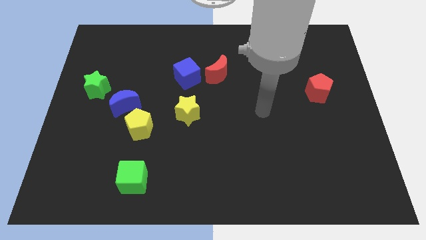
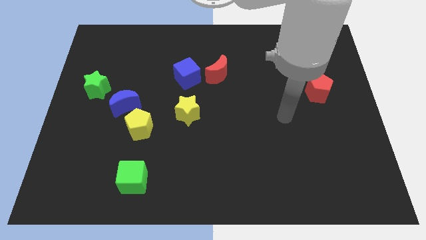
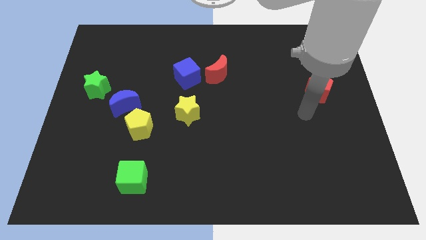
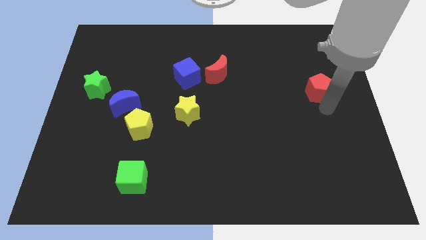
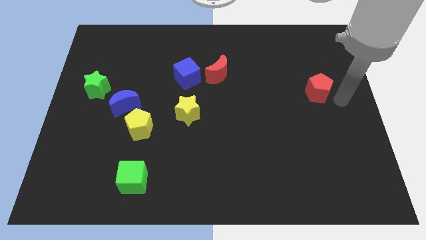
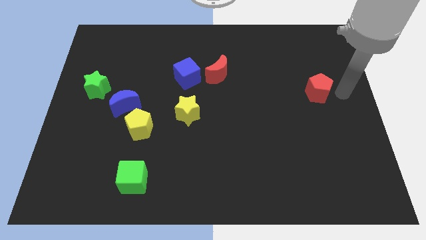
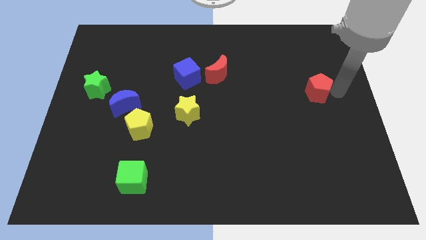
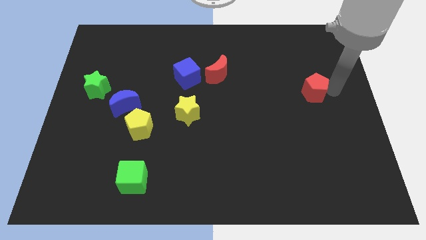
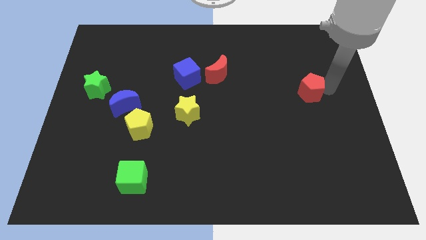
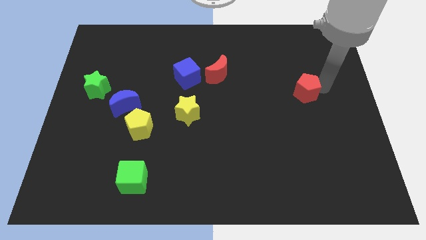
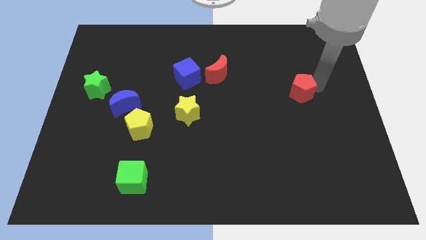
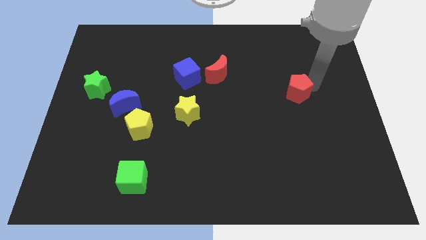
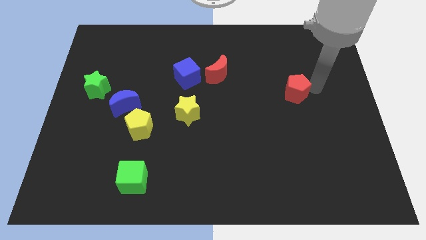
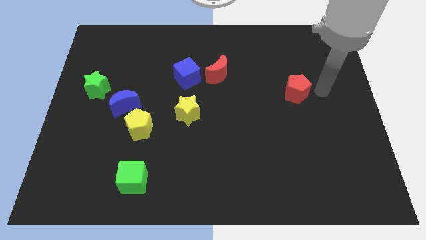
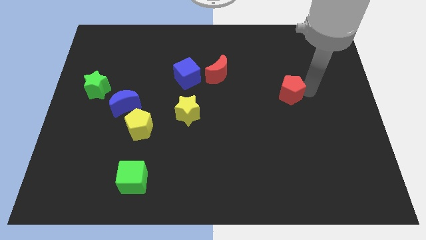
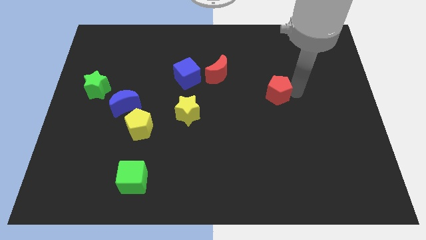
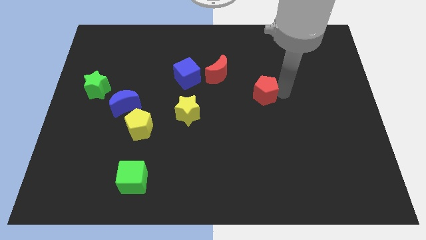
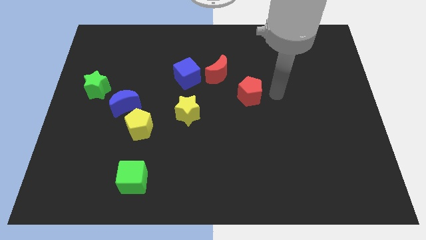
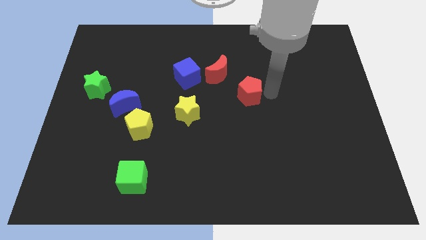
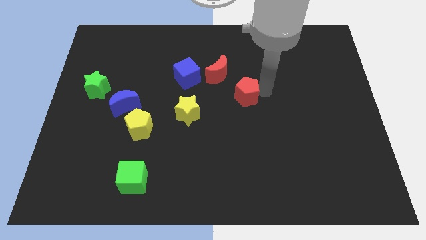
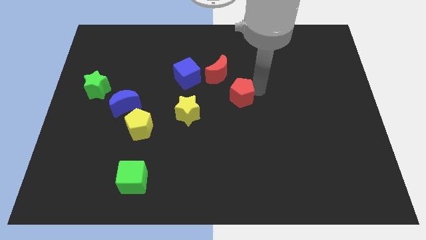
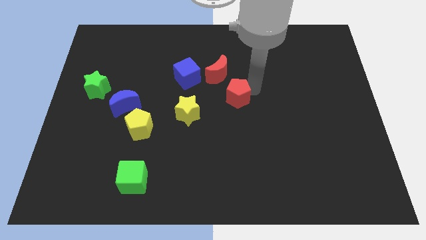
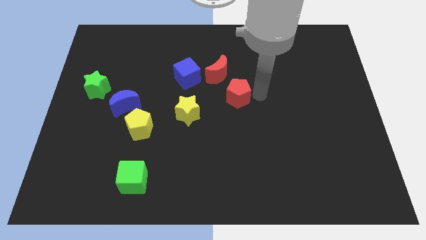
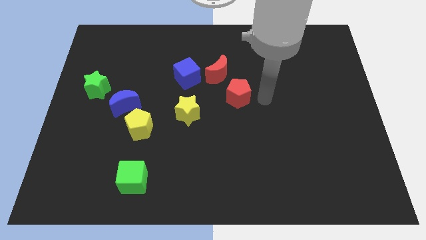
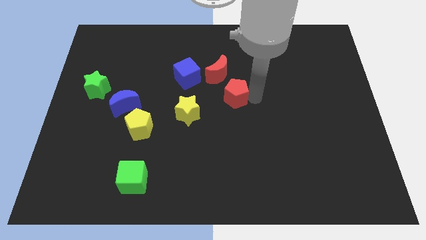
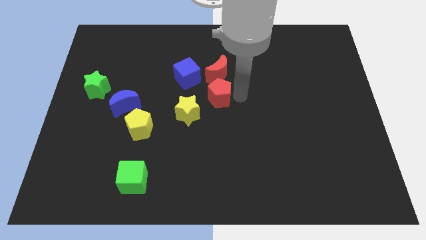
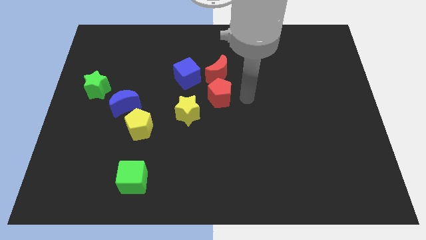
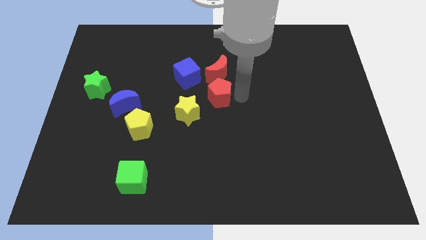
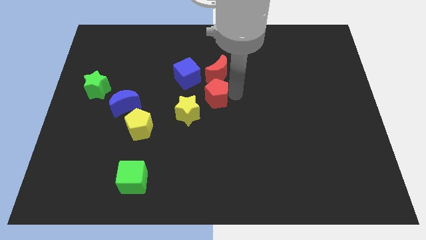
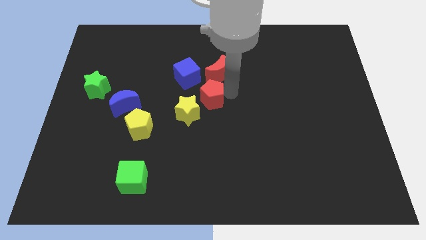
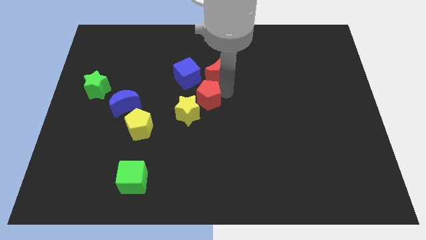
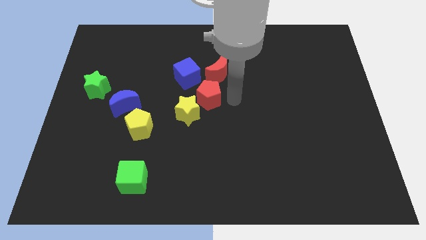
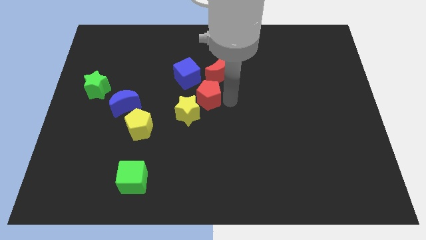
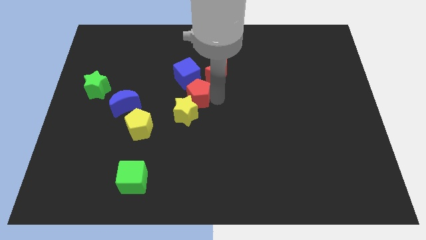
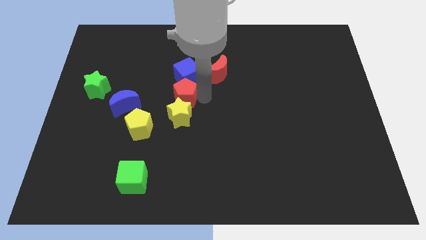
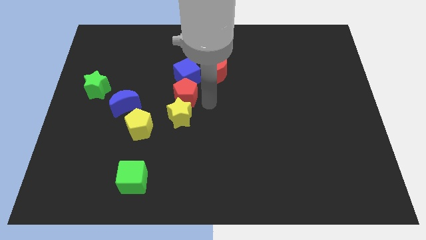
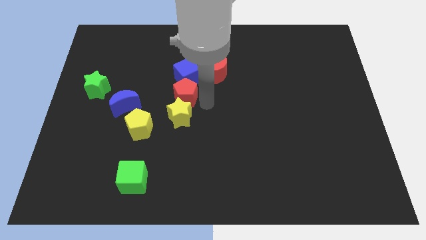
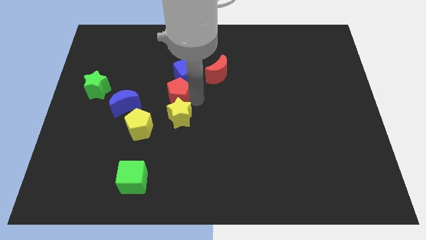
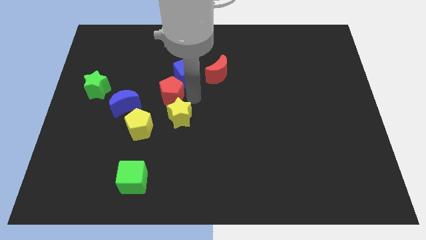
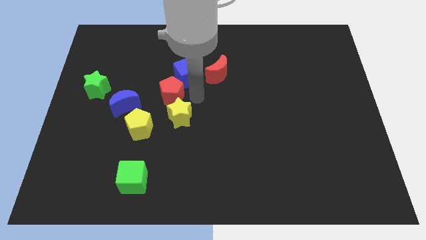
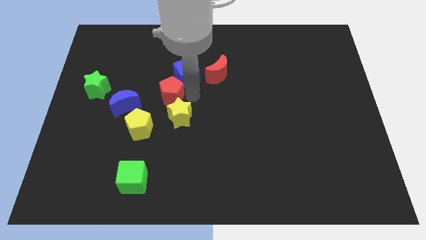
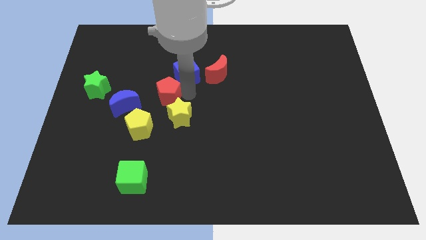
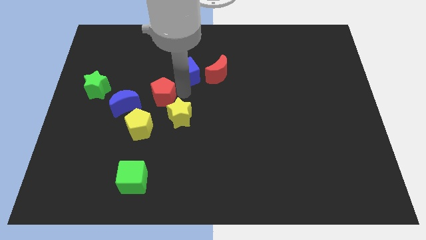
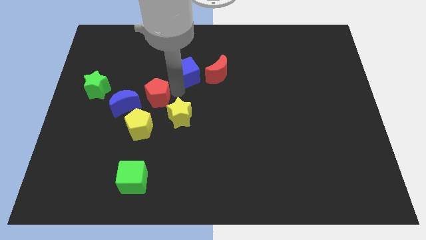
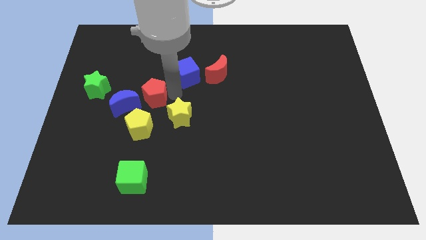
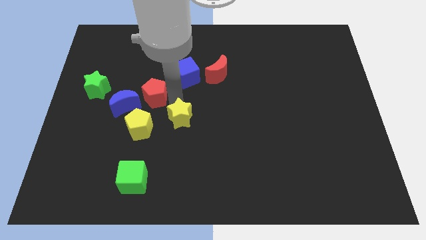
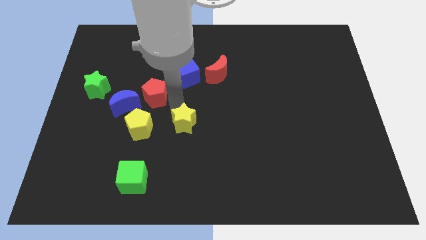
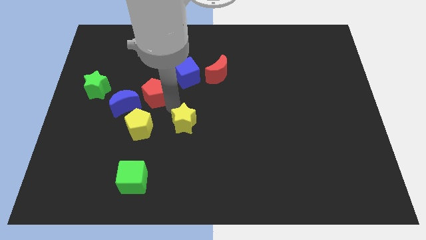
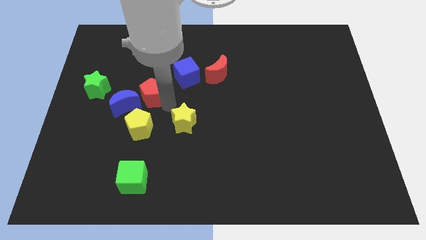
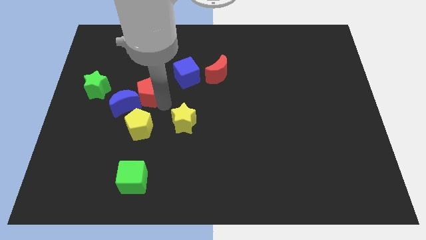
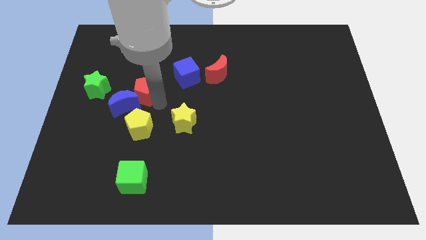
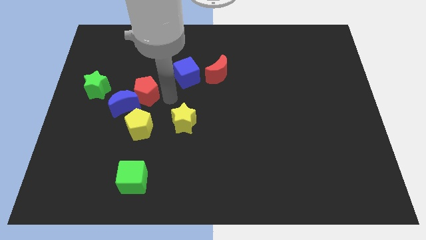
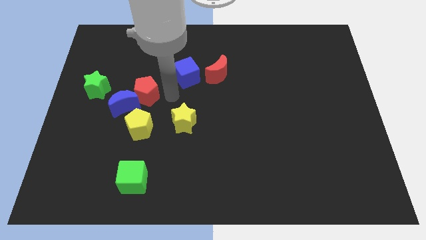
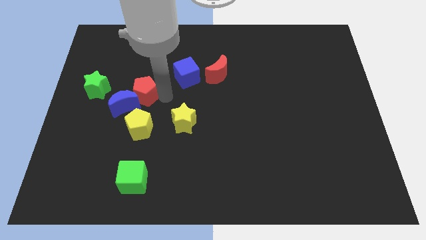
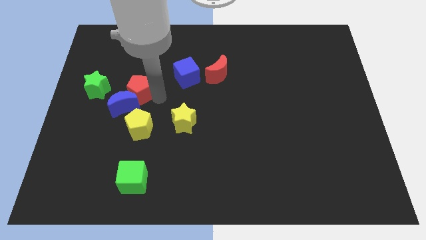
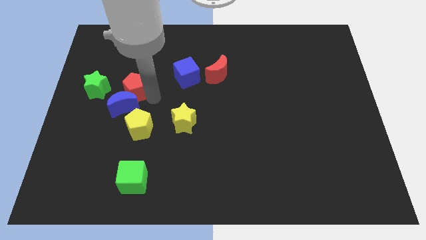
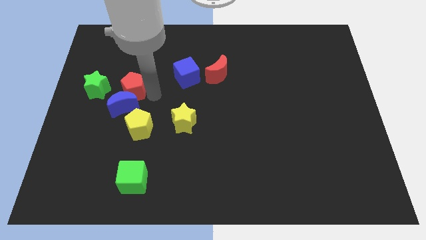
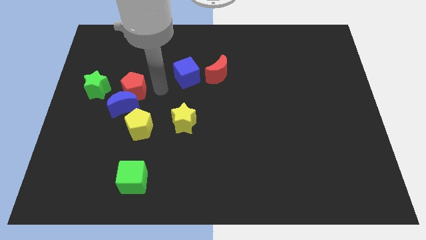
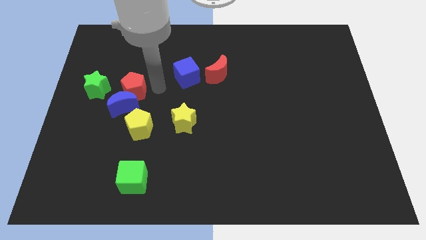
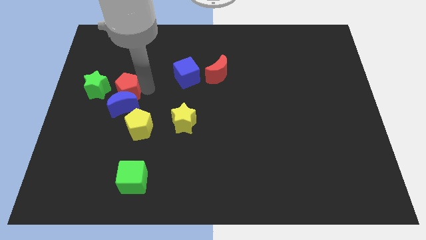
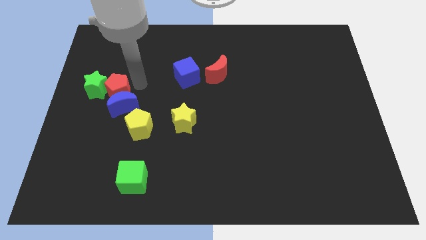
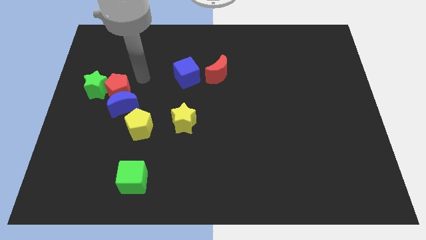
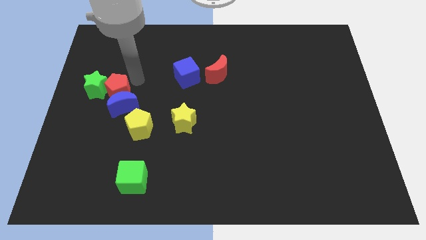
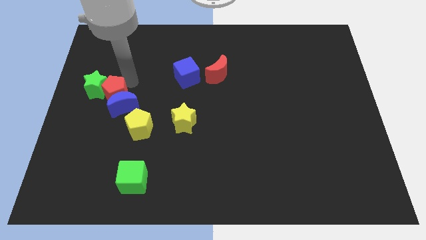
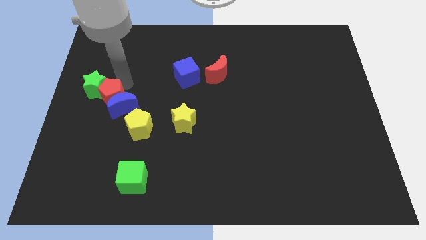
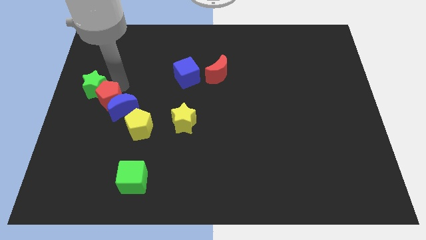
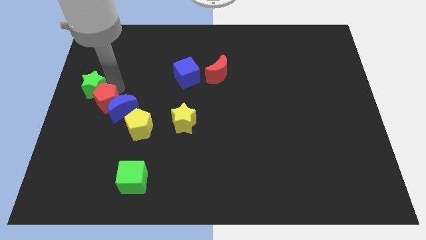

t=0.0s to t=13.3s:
move the red pentagon to the center left
